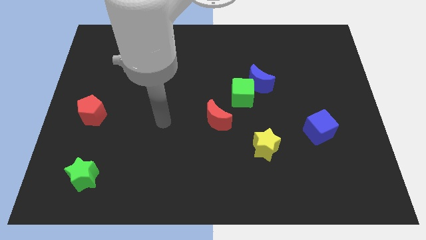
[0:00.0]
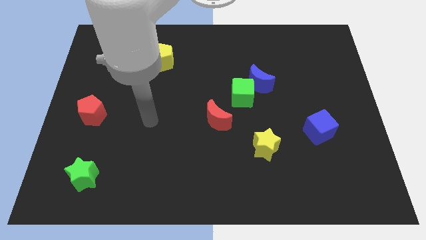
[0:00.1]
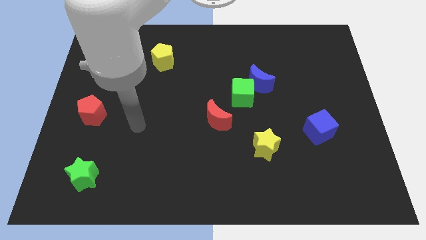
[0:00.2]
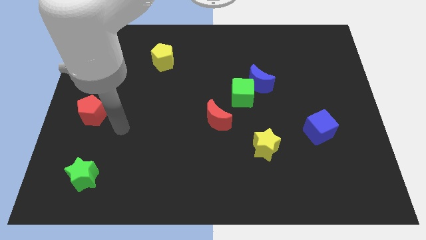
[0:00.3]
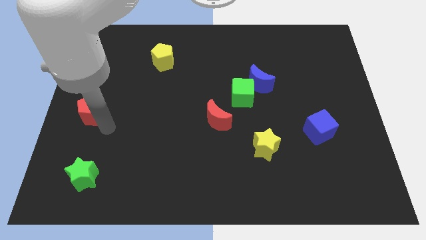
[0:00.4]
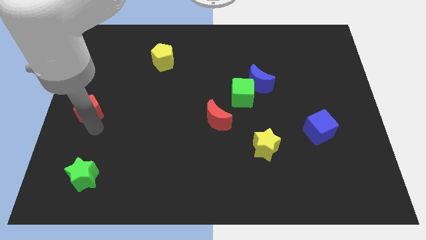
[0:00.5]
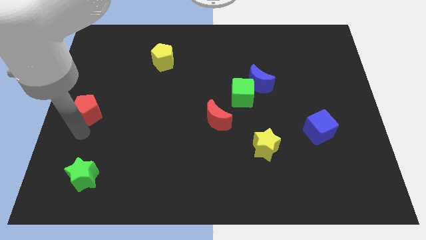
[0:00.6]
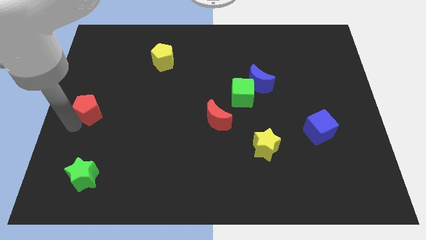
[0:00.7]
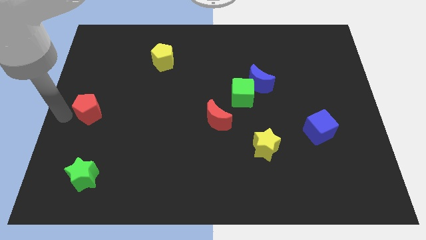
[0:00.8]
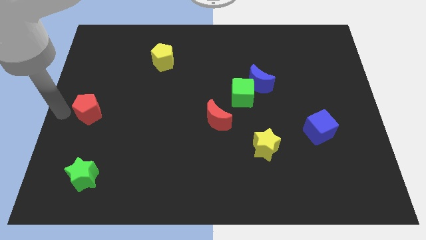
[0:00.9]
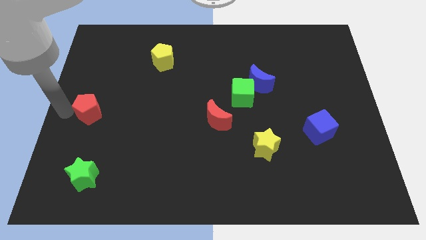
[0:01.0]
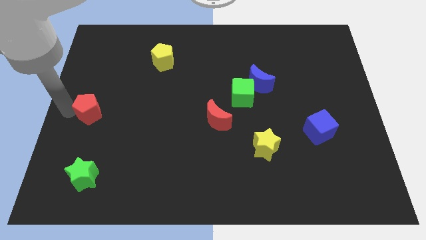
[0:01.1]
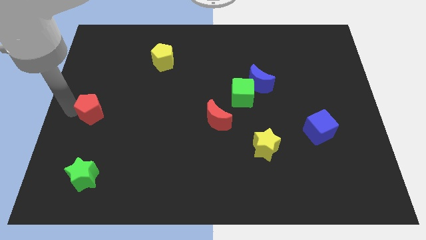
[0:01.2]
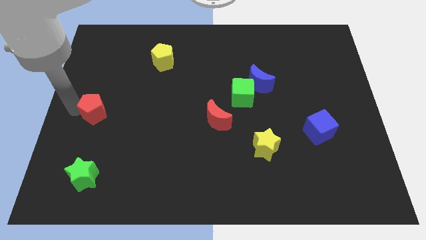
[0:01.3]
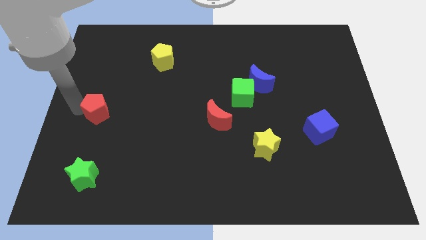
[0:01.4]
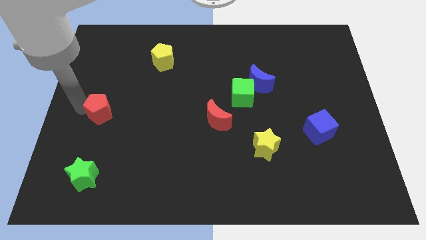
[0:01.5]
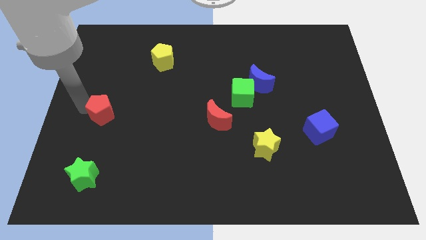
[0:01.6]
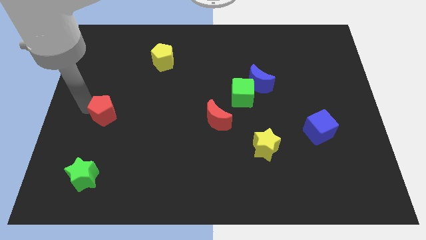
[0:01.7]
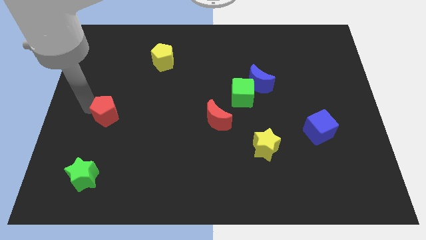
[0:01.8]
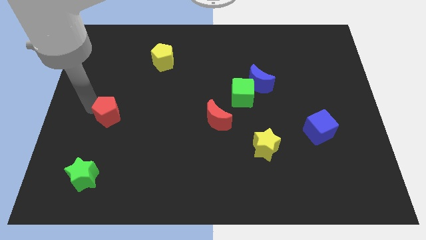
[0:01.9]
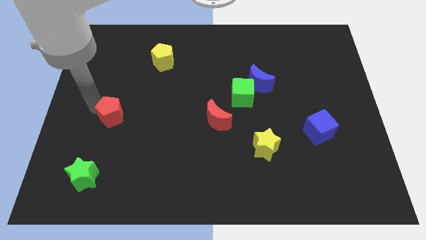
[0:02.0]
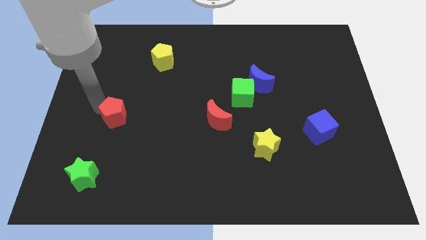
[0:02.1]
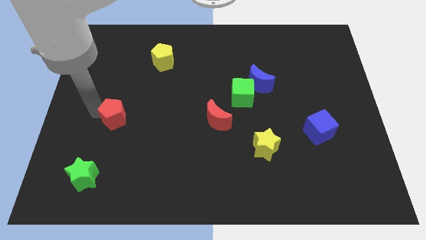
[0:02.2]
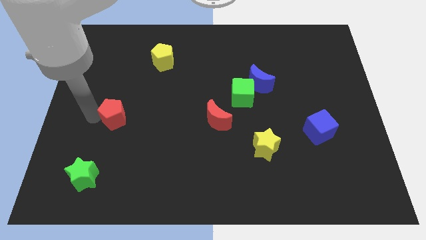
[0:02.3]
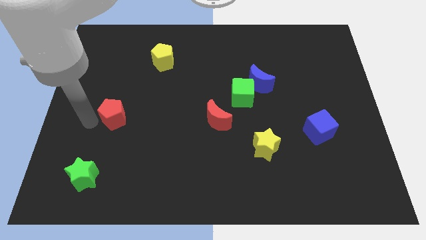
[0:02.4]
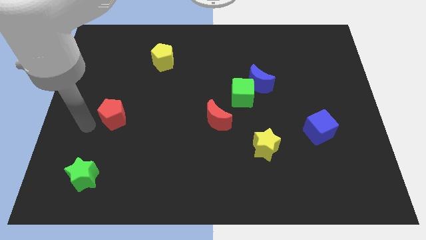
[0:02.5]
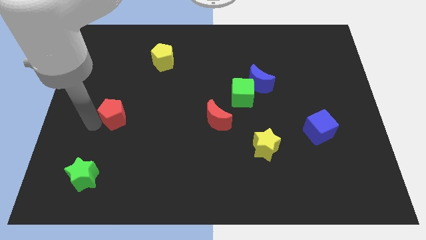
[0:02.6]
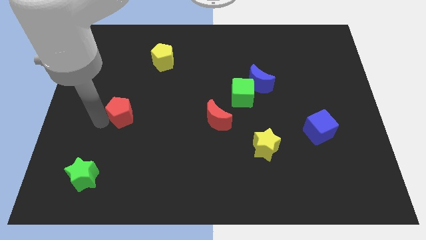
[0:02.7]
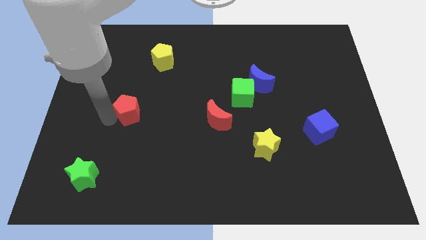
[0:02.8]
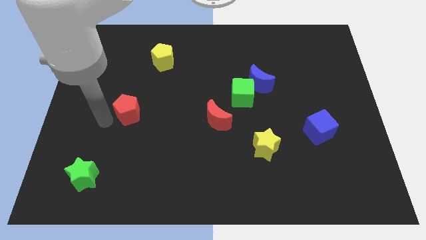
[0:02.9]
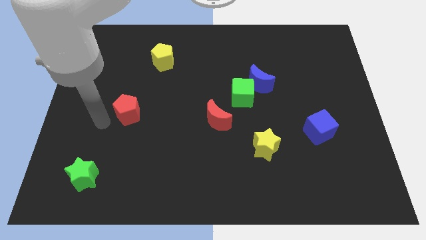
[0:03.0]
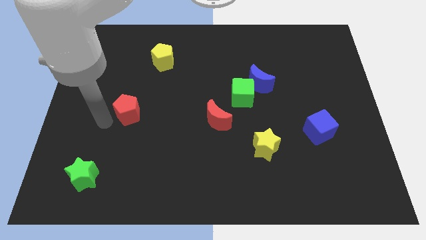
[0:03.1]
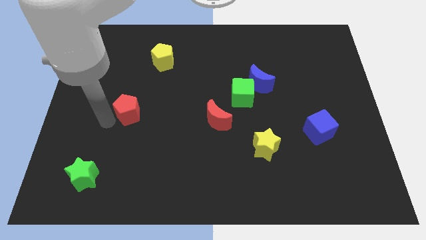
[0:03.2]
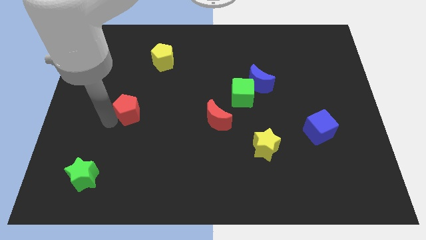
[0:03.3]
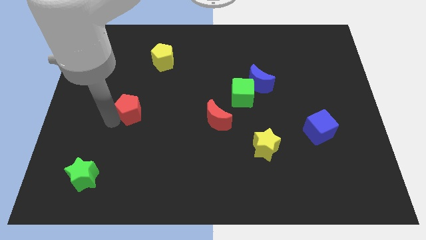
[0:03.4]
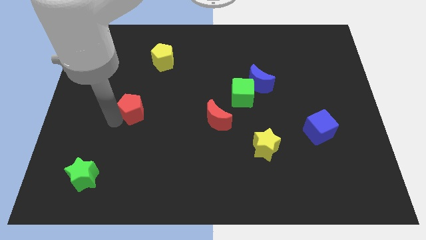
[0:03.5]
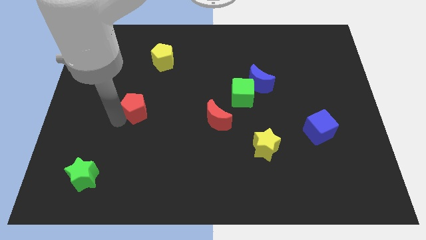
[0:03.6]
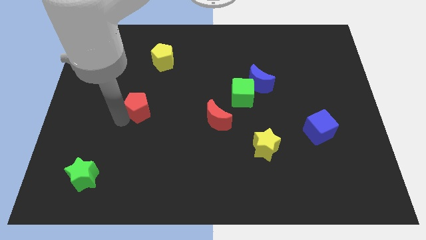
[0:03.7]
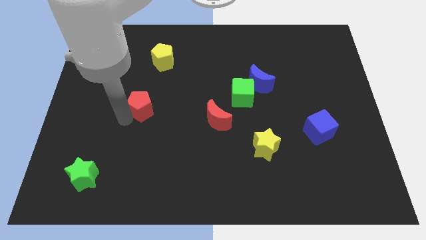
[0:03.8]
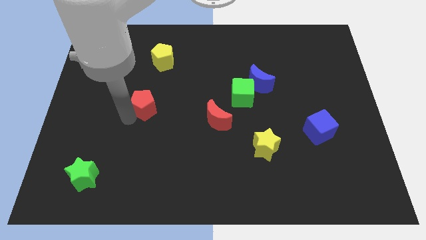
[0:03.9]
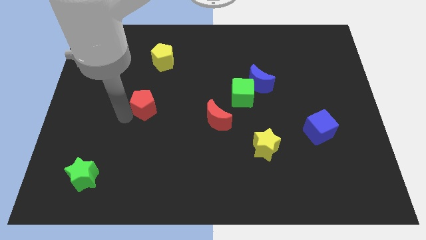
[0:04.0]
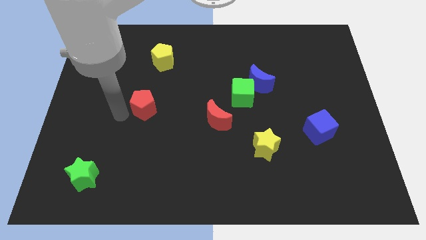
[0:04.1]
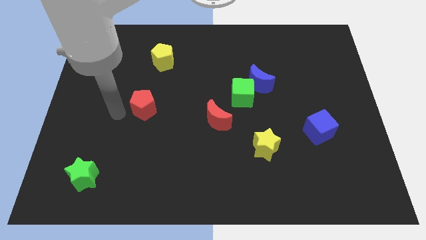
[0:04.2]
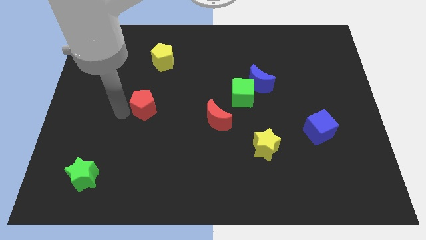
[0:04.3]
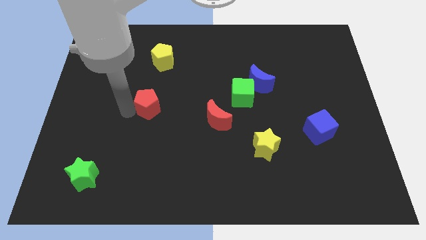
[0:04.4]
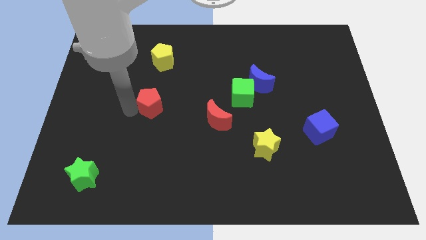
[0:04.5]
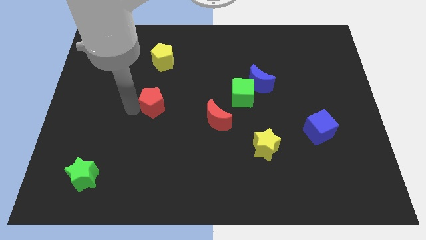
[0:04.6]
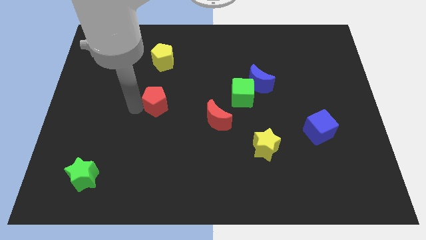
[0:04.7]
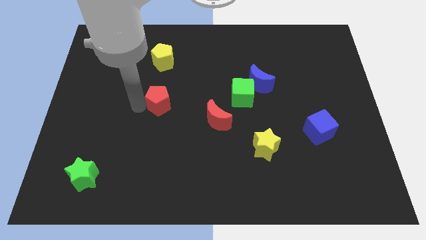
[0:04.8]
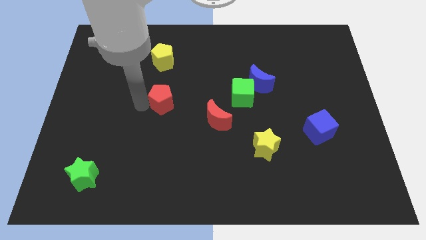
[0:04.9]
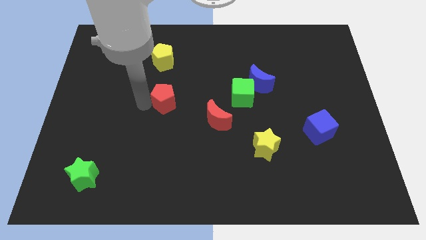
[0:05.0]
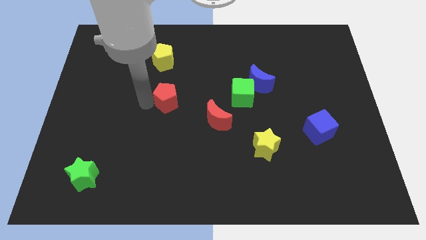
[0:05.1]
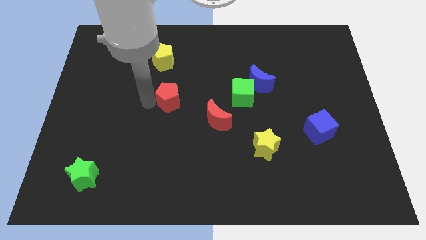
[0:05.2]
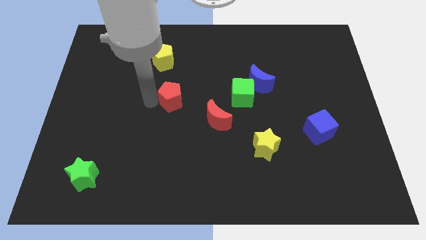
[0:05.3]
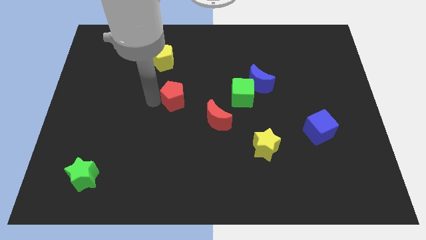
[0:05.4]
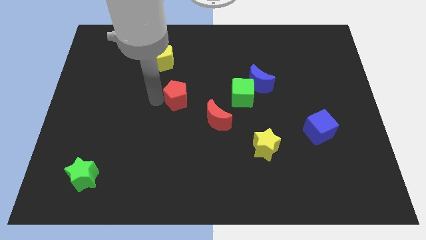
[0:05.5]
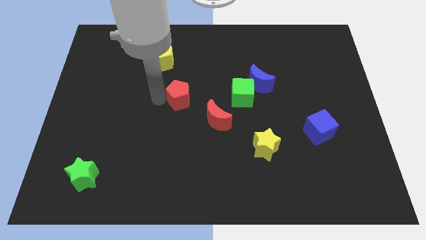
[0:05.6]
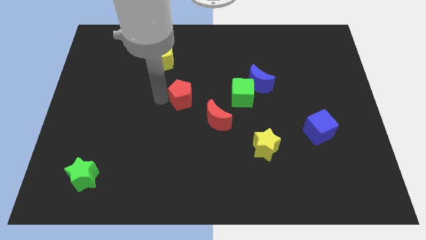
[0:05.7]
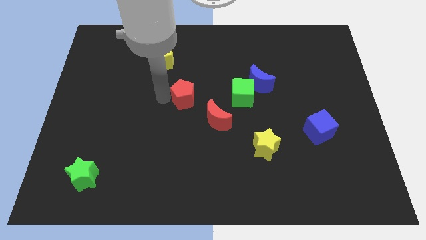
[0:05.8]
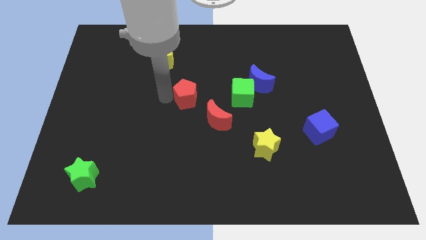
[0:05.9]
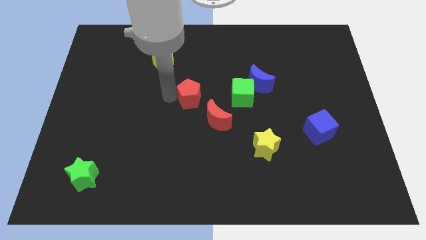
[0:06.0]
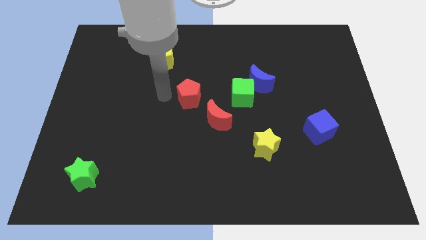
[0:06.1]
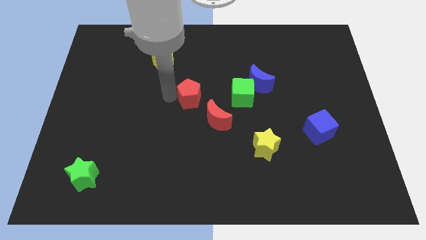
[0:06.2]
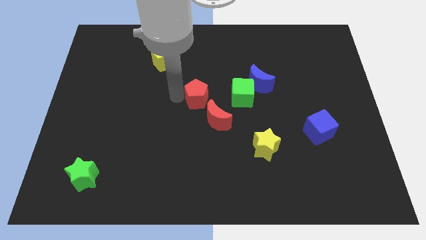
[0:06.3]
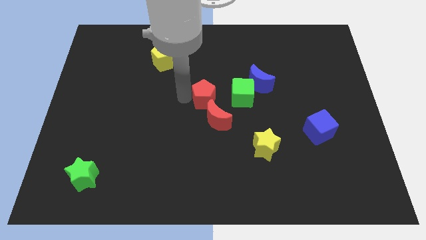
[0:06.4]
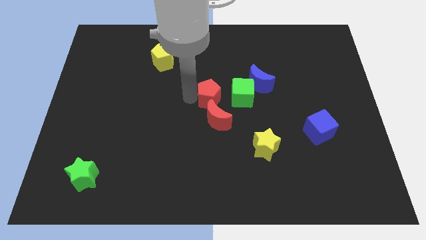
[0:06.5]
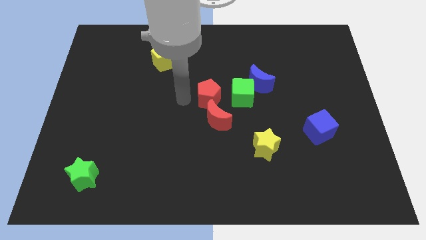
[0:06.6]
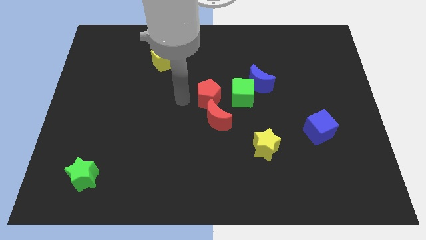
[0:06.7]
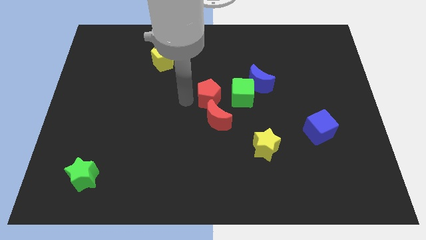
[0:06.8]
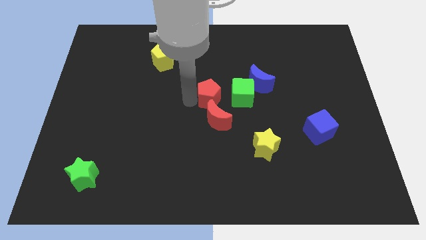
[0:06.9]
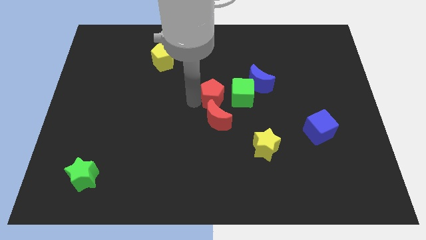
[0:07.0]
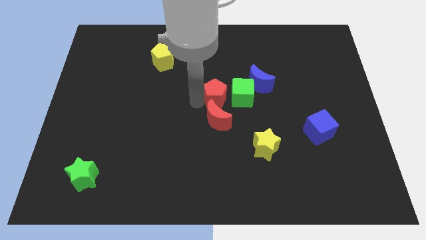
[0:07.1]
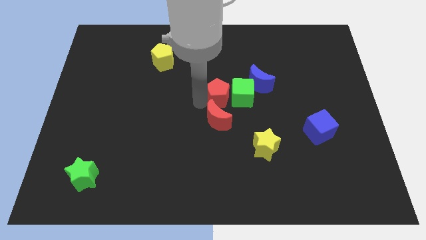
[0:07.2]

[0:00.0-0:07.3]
move the red pentagon next to the green cube
